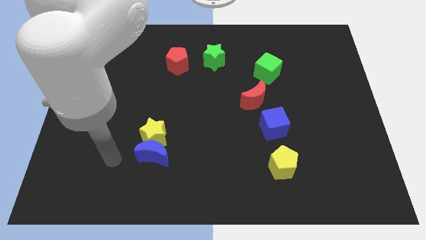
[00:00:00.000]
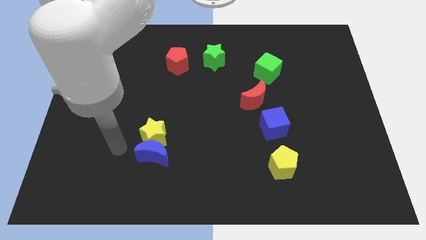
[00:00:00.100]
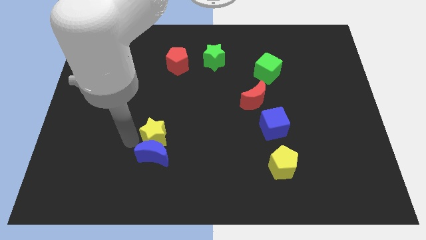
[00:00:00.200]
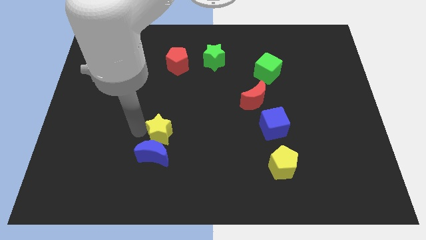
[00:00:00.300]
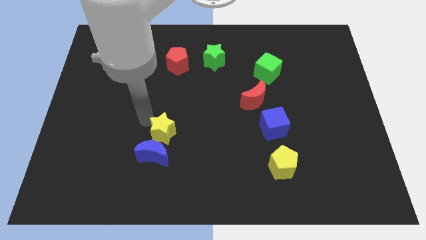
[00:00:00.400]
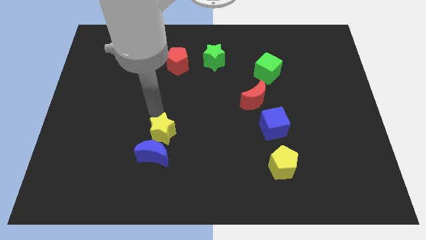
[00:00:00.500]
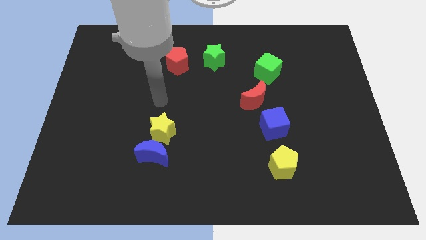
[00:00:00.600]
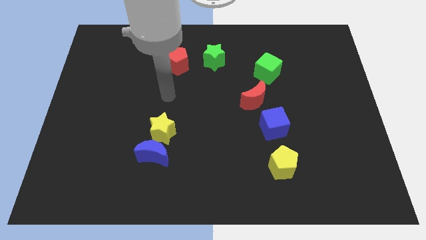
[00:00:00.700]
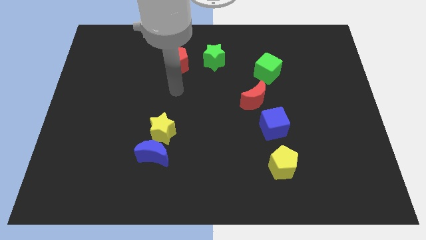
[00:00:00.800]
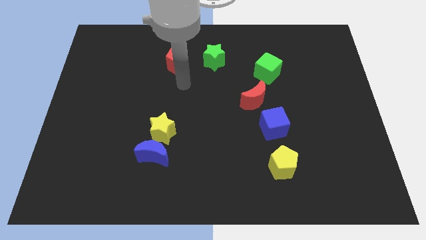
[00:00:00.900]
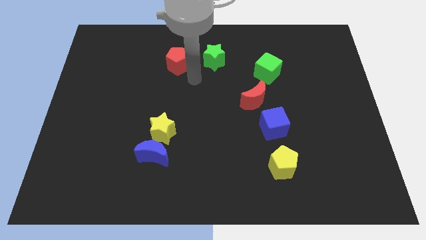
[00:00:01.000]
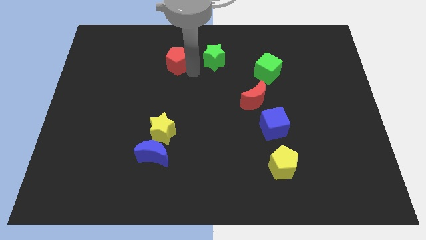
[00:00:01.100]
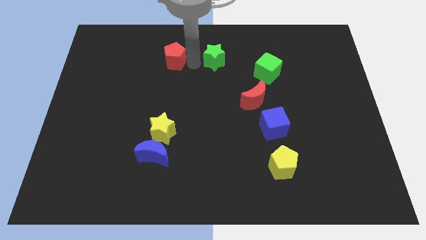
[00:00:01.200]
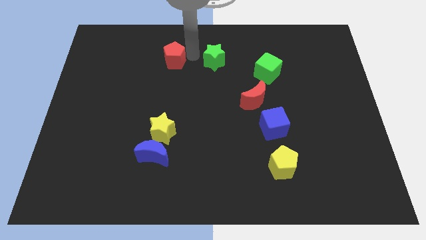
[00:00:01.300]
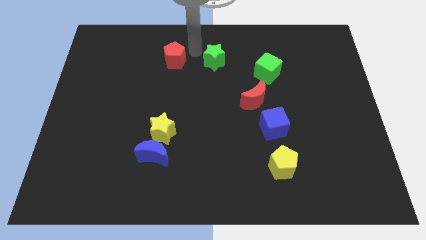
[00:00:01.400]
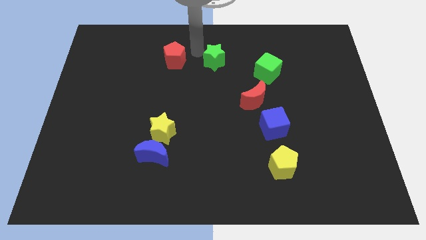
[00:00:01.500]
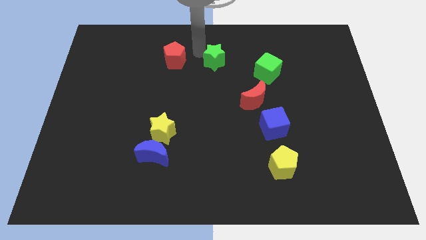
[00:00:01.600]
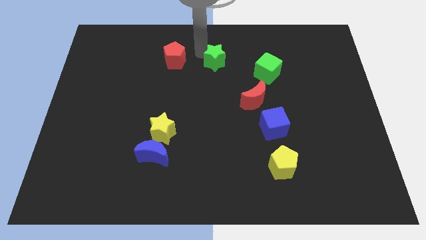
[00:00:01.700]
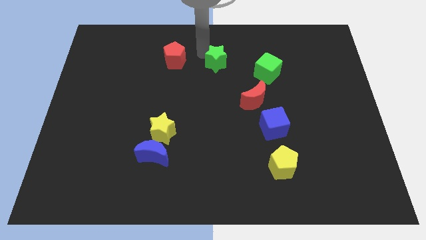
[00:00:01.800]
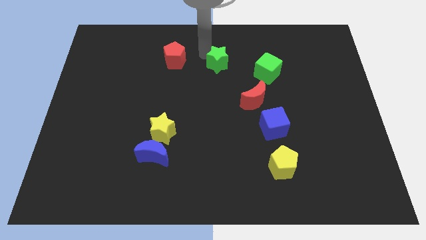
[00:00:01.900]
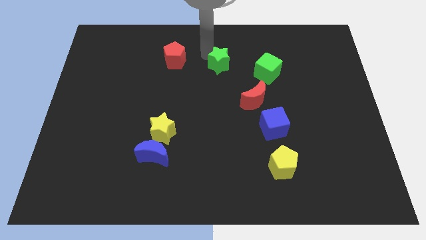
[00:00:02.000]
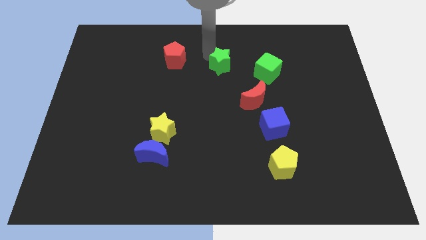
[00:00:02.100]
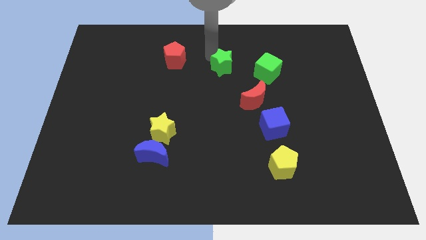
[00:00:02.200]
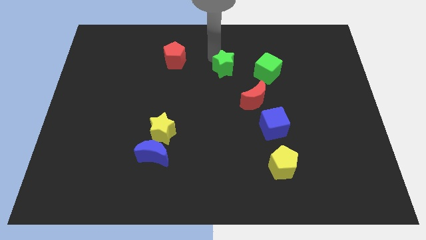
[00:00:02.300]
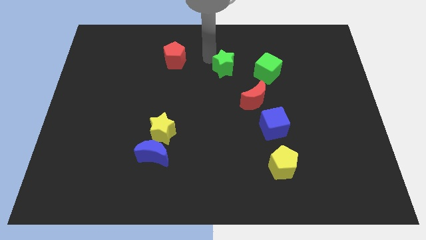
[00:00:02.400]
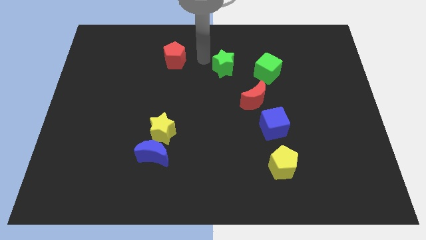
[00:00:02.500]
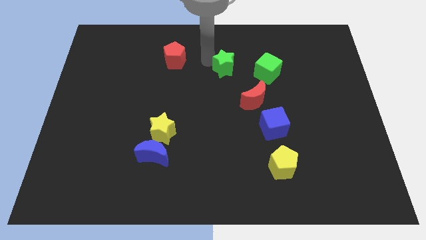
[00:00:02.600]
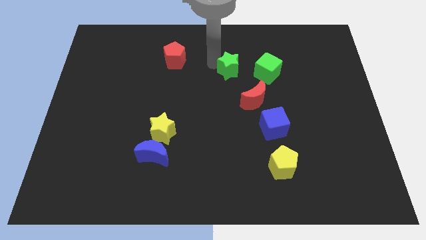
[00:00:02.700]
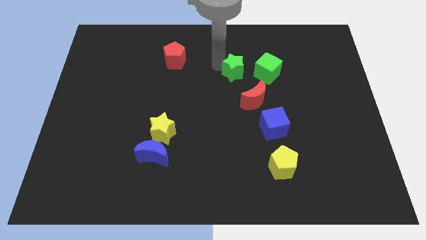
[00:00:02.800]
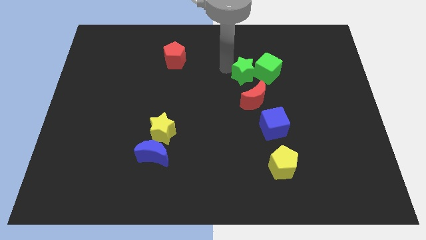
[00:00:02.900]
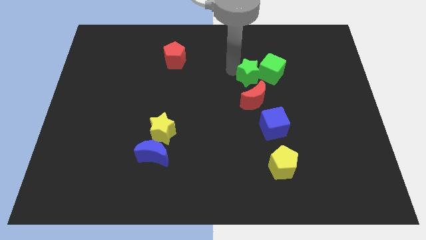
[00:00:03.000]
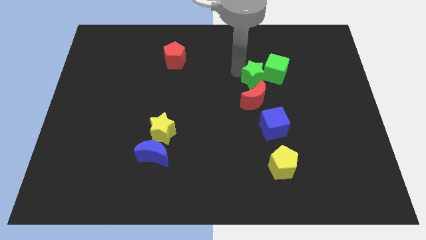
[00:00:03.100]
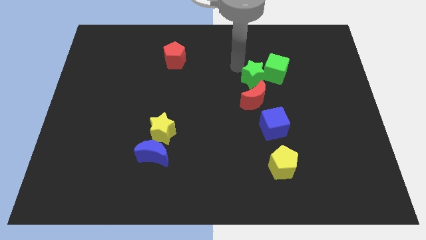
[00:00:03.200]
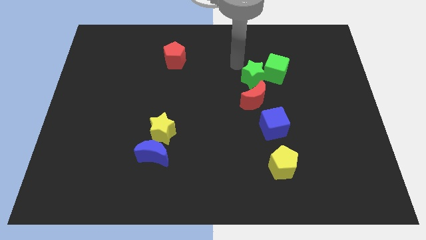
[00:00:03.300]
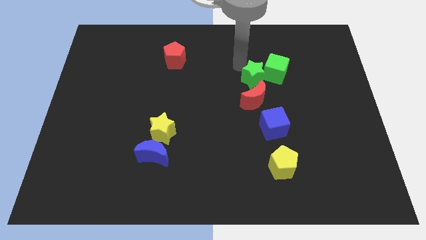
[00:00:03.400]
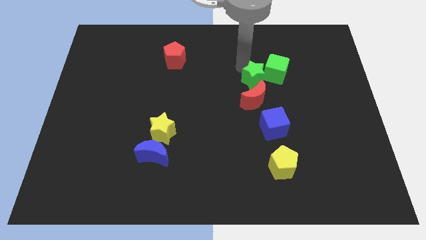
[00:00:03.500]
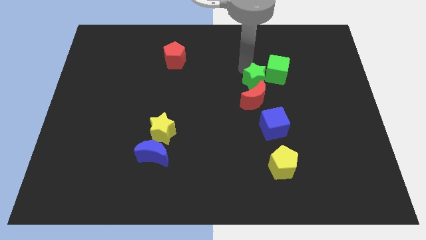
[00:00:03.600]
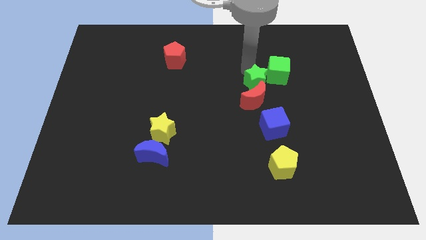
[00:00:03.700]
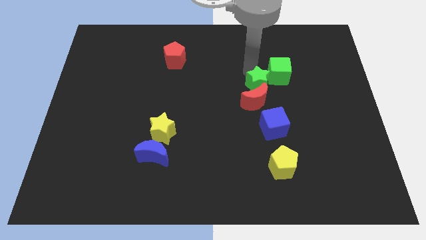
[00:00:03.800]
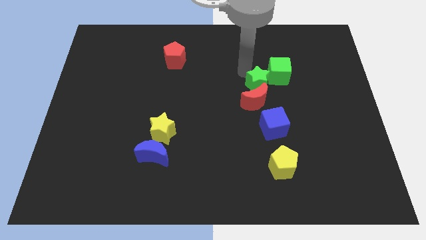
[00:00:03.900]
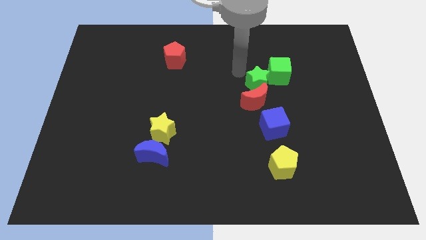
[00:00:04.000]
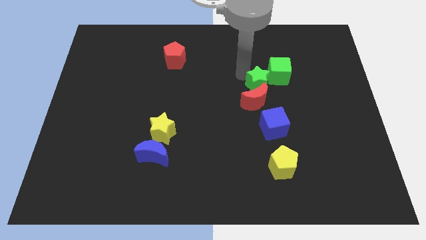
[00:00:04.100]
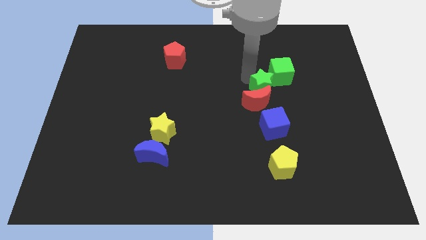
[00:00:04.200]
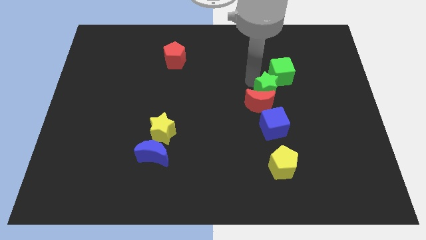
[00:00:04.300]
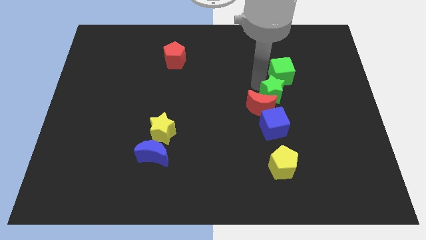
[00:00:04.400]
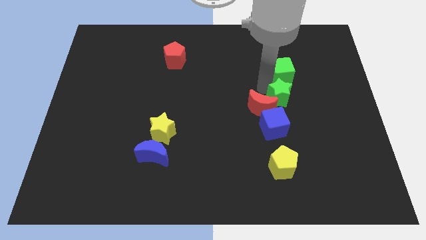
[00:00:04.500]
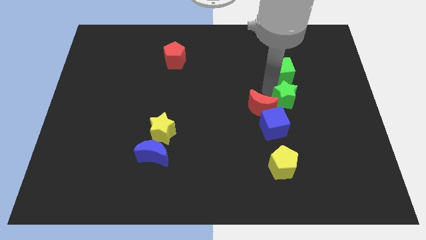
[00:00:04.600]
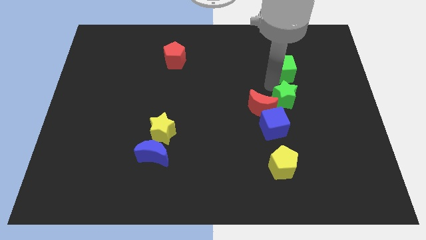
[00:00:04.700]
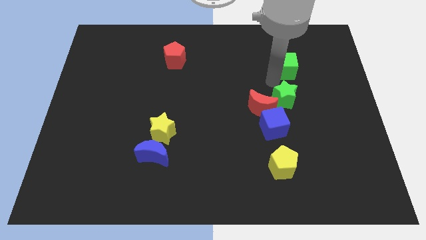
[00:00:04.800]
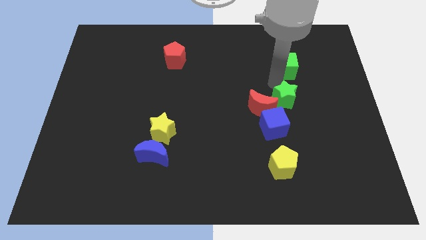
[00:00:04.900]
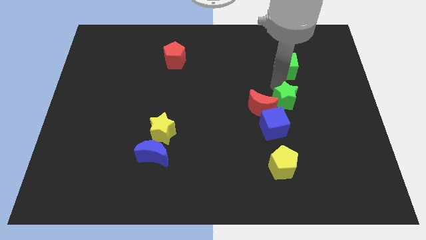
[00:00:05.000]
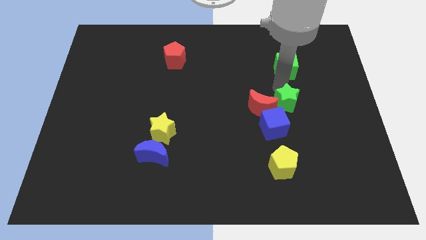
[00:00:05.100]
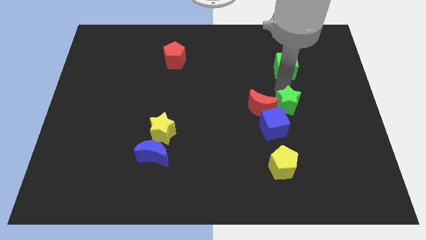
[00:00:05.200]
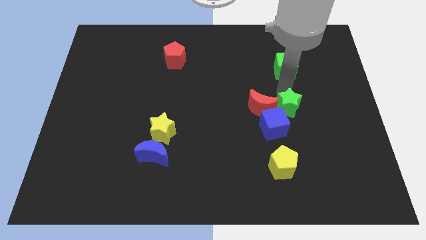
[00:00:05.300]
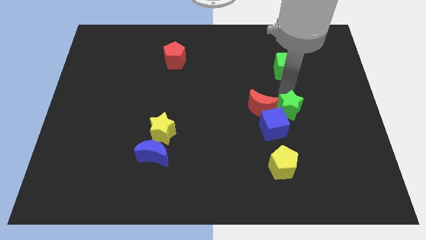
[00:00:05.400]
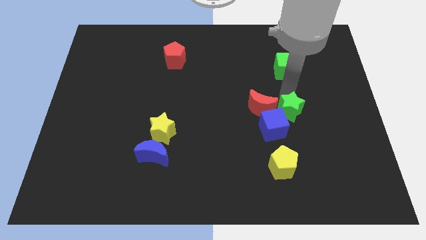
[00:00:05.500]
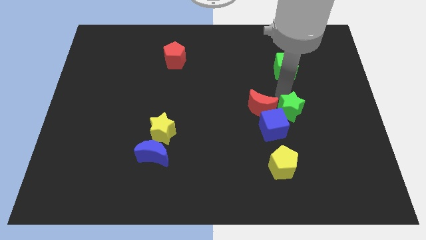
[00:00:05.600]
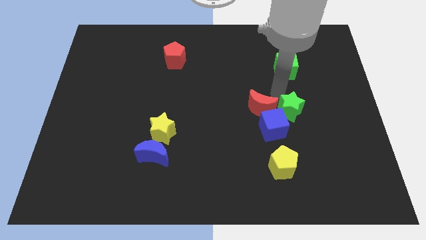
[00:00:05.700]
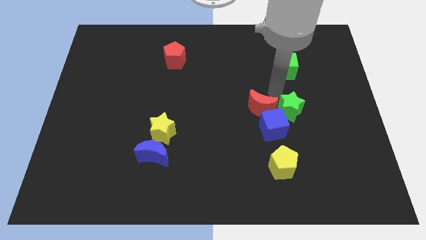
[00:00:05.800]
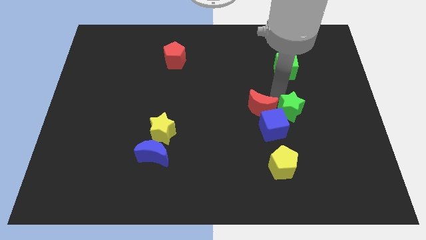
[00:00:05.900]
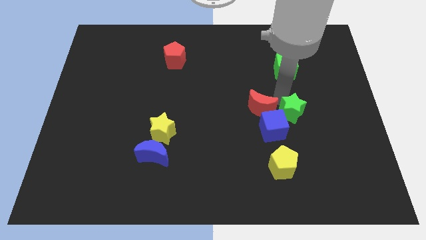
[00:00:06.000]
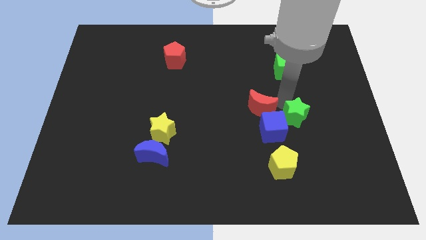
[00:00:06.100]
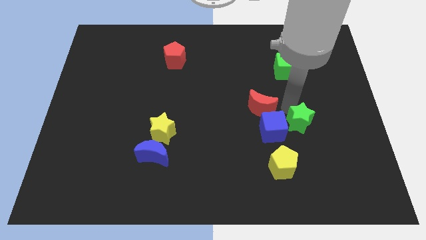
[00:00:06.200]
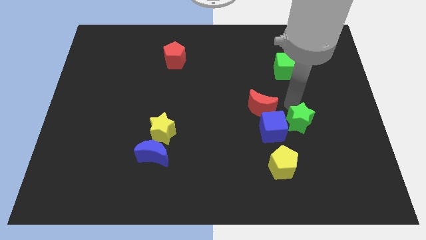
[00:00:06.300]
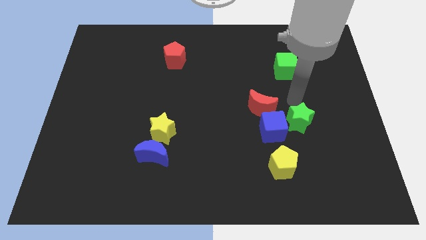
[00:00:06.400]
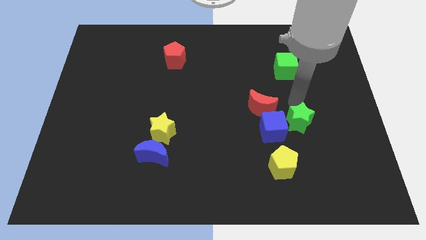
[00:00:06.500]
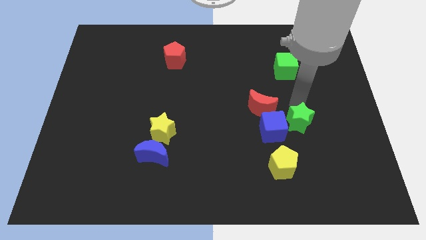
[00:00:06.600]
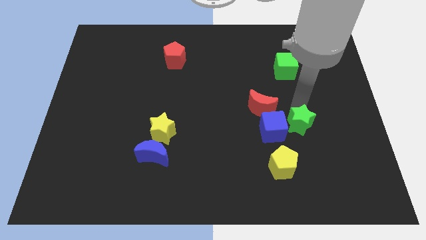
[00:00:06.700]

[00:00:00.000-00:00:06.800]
slide the green star diagonally up and to the right of the yellow pentagon

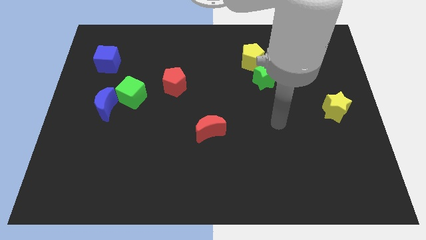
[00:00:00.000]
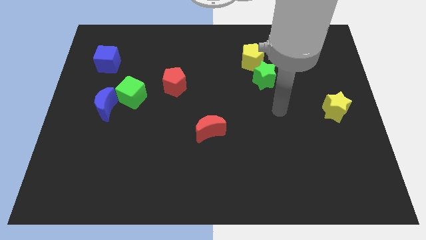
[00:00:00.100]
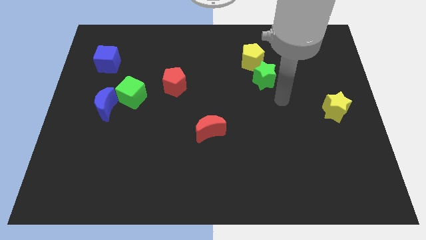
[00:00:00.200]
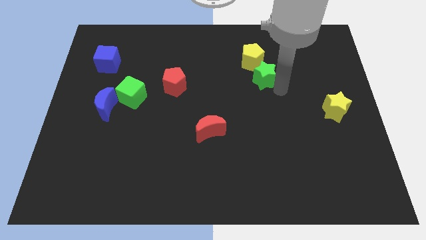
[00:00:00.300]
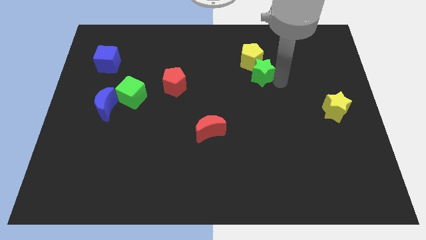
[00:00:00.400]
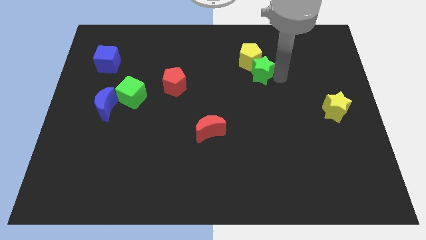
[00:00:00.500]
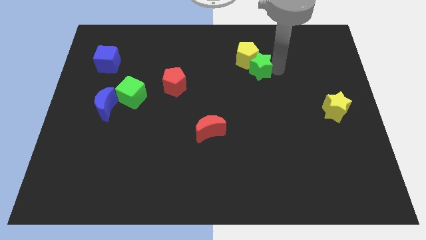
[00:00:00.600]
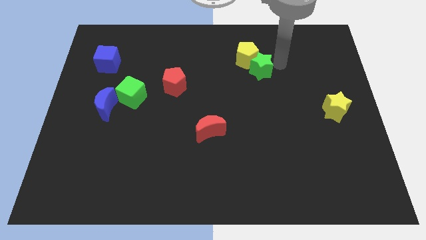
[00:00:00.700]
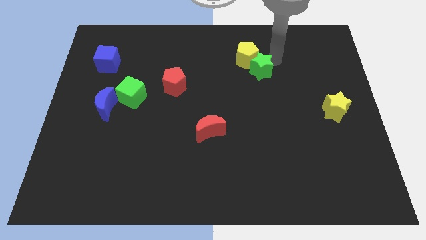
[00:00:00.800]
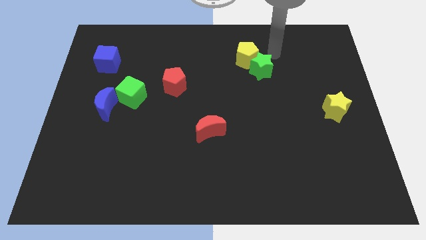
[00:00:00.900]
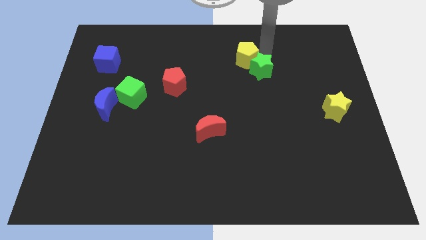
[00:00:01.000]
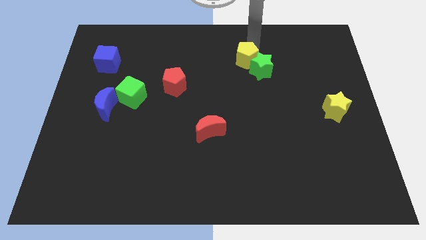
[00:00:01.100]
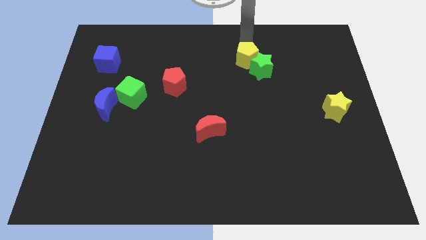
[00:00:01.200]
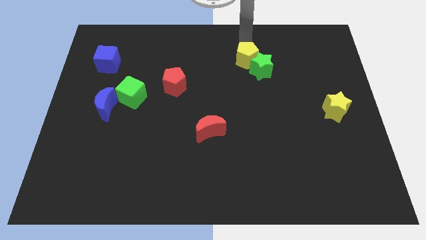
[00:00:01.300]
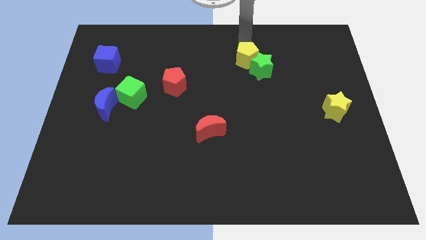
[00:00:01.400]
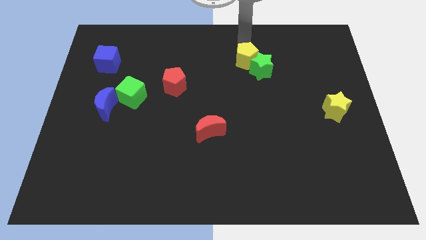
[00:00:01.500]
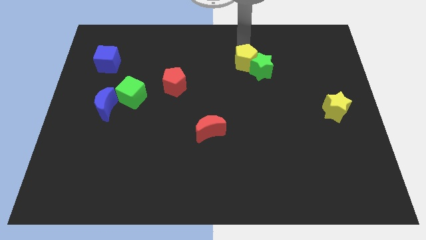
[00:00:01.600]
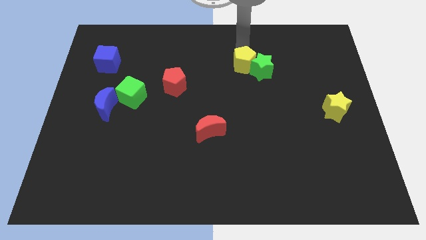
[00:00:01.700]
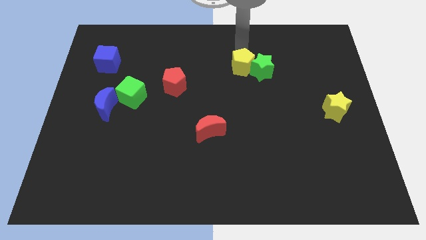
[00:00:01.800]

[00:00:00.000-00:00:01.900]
slide the yellow pentagon diagonally down and to the left of the green star
